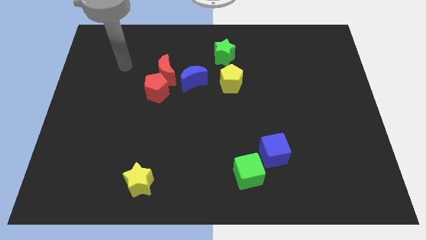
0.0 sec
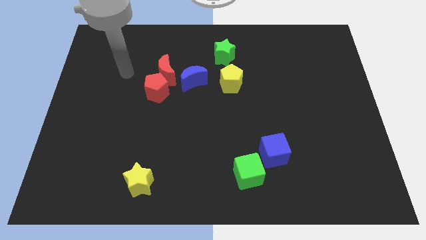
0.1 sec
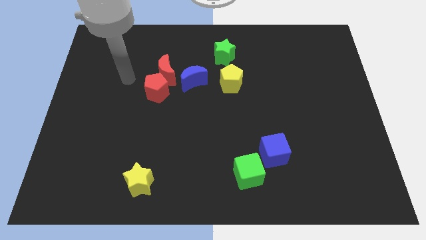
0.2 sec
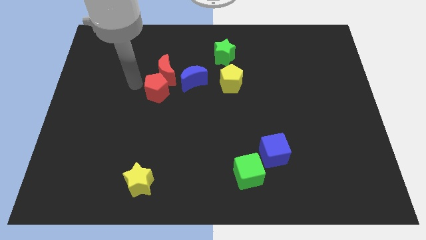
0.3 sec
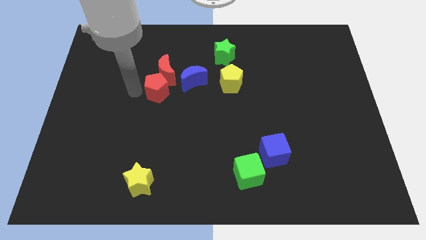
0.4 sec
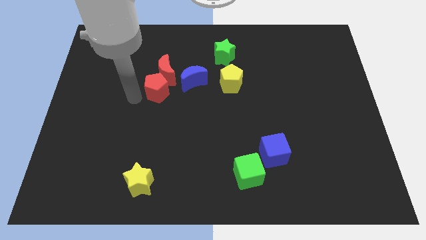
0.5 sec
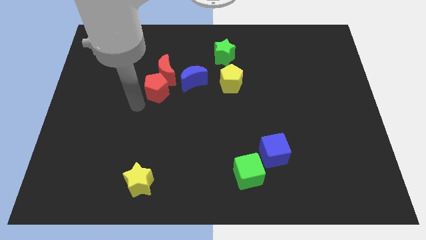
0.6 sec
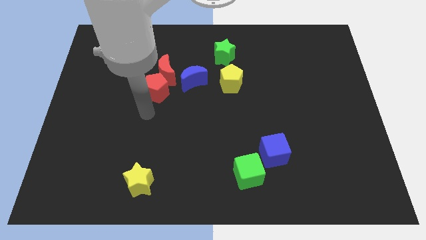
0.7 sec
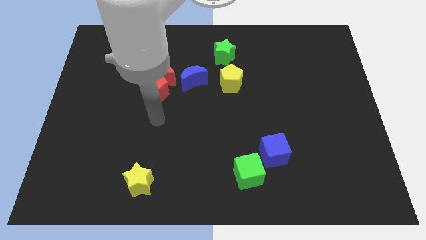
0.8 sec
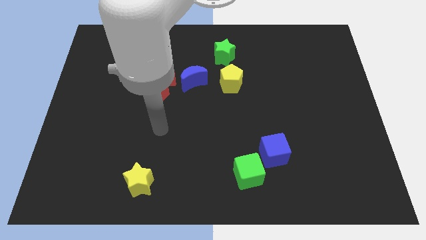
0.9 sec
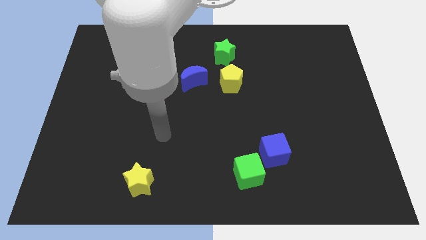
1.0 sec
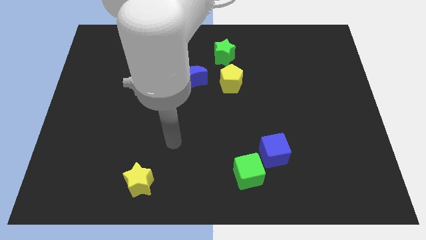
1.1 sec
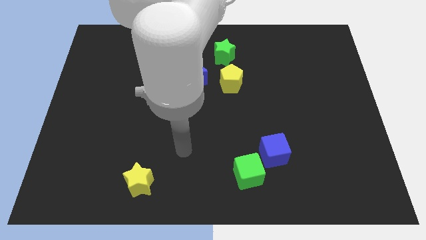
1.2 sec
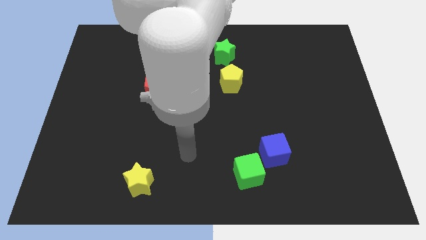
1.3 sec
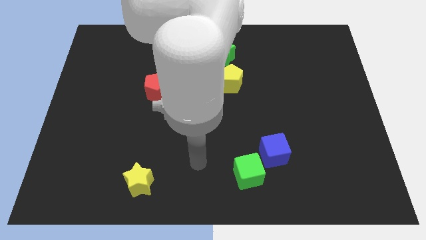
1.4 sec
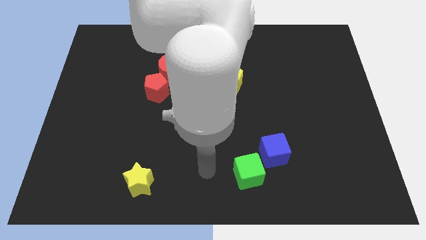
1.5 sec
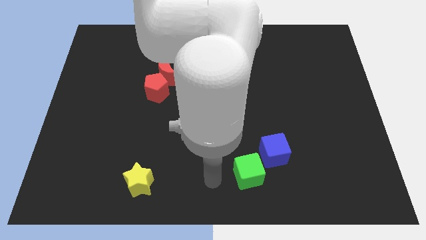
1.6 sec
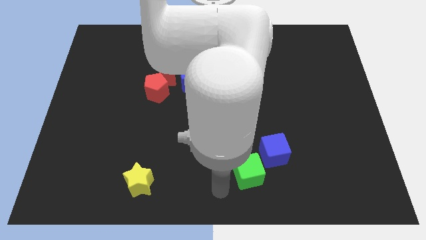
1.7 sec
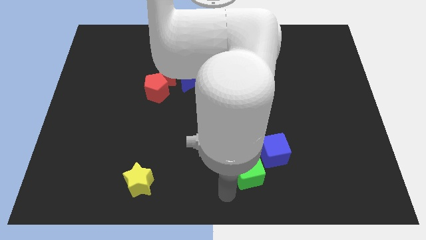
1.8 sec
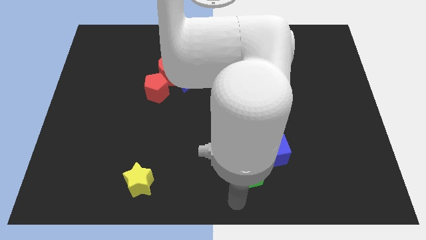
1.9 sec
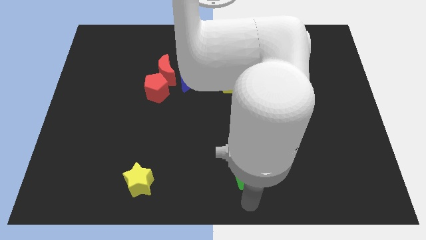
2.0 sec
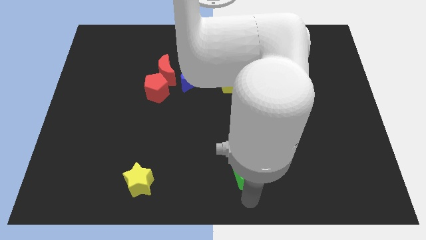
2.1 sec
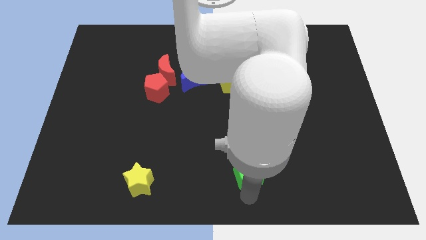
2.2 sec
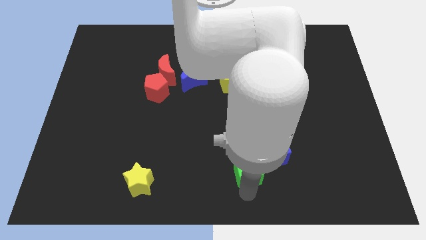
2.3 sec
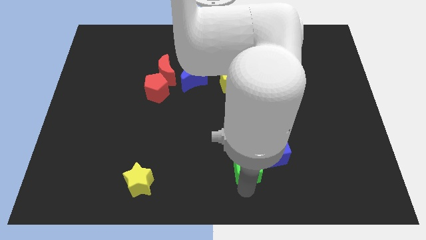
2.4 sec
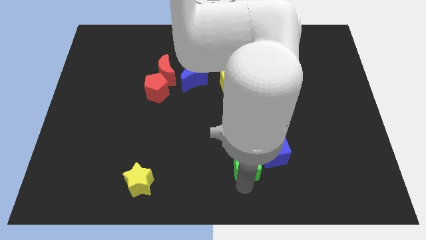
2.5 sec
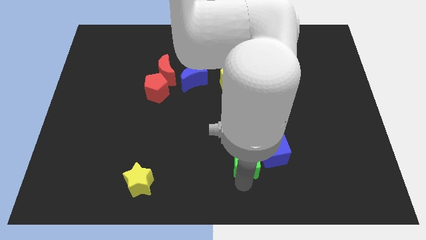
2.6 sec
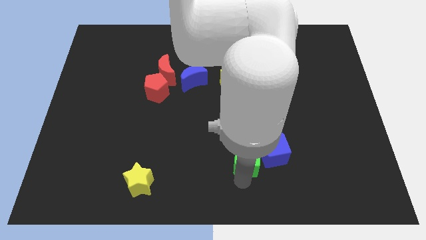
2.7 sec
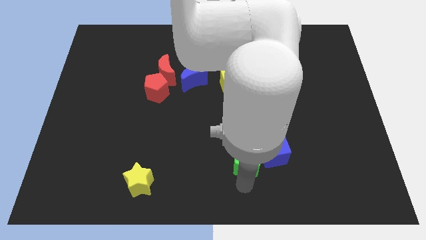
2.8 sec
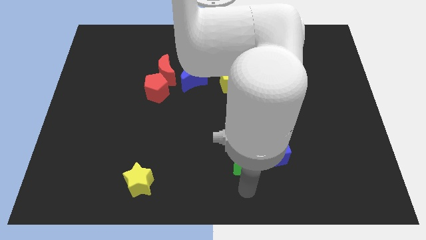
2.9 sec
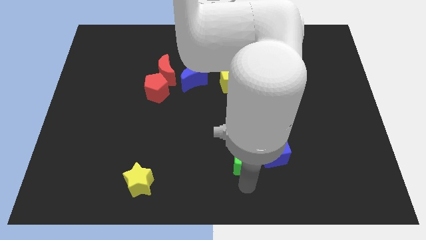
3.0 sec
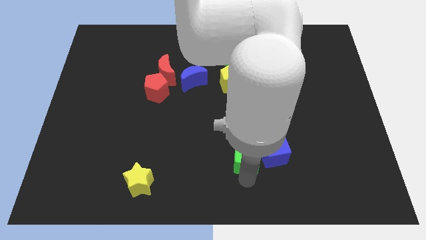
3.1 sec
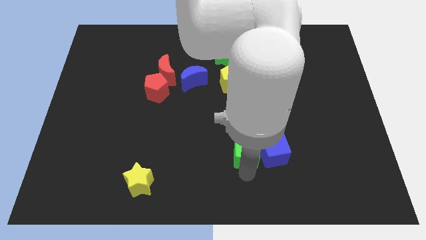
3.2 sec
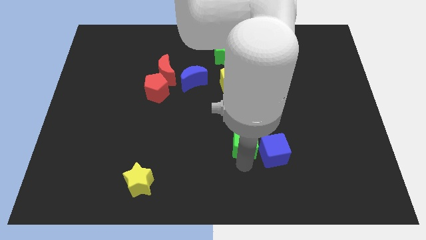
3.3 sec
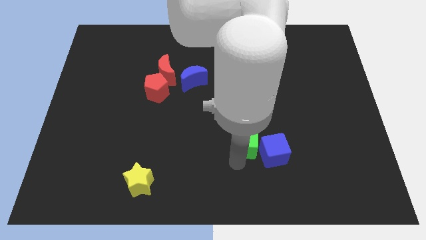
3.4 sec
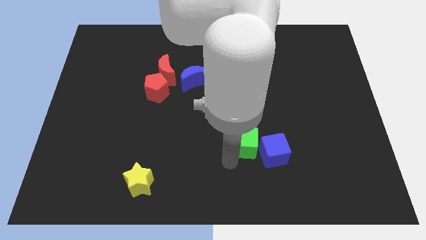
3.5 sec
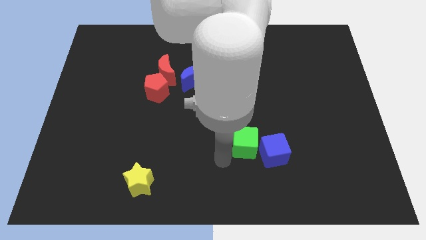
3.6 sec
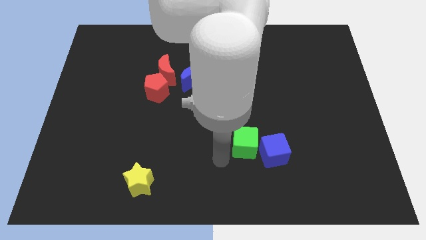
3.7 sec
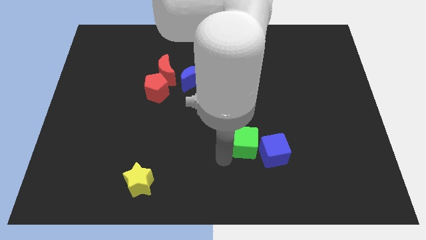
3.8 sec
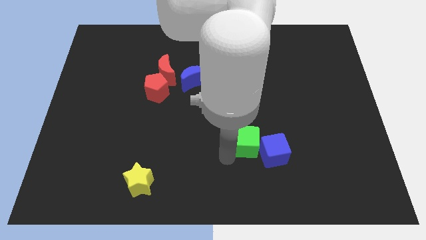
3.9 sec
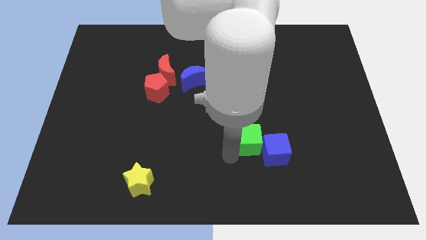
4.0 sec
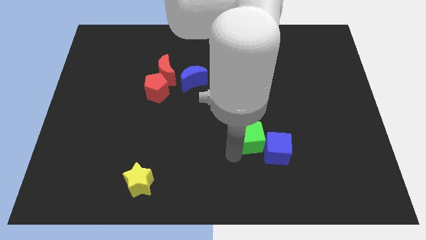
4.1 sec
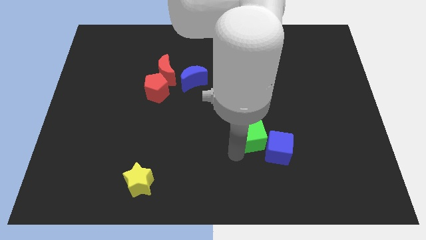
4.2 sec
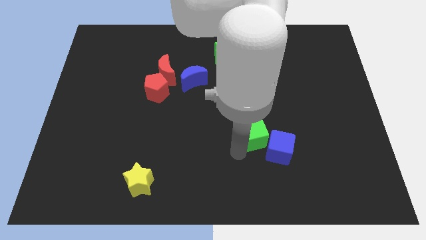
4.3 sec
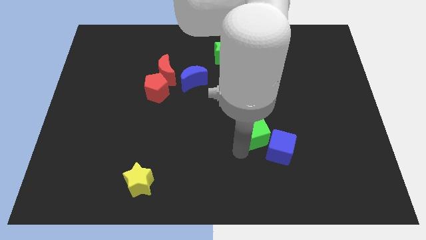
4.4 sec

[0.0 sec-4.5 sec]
slide the green cube a bit up and right

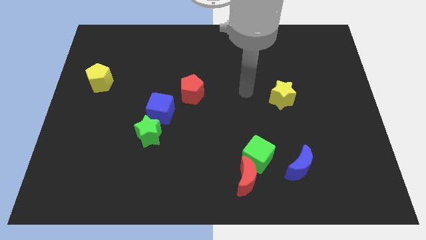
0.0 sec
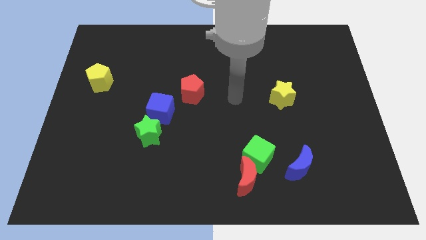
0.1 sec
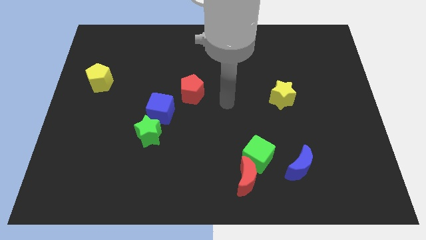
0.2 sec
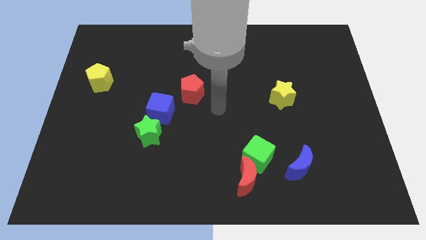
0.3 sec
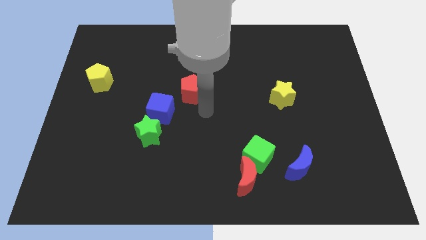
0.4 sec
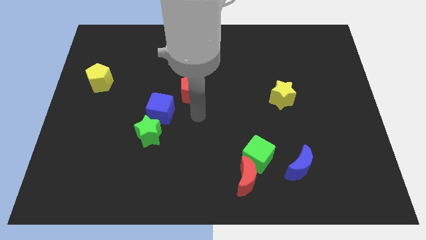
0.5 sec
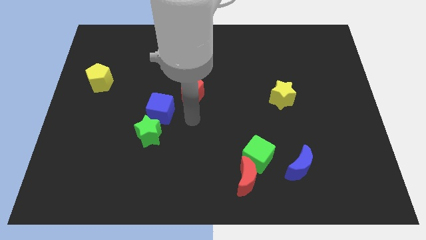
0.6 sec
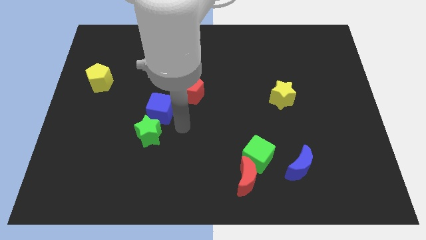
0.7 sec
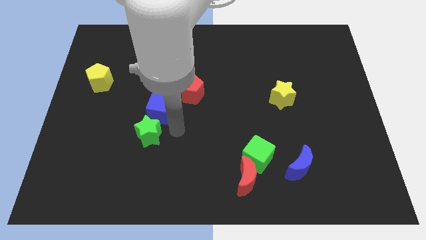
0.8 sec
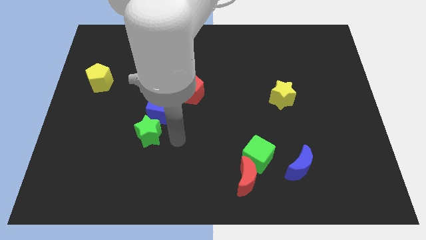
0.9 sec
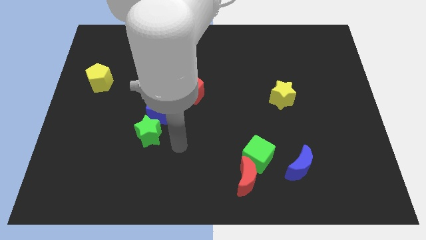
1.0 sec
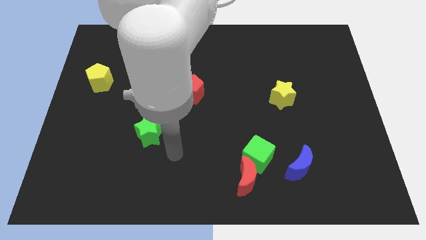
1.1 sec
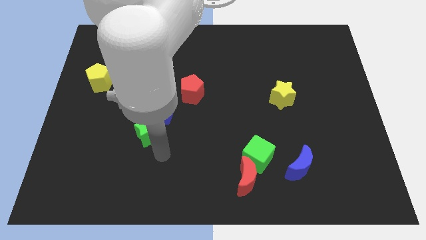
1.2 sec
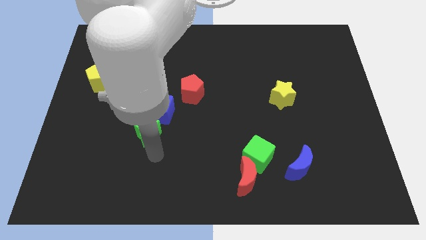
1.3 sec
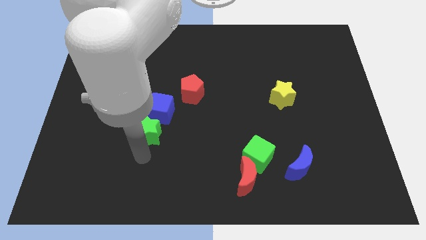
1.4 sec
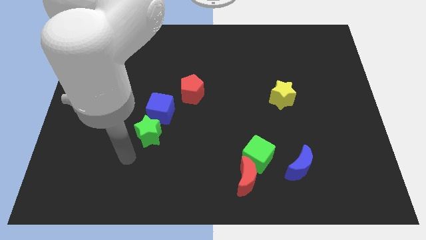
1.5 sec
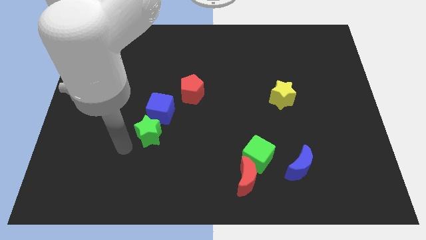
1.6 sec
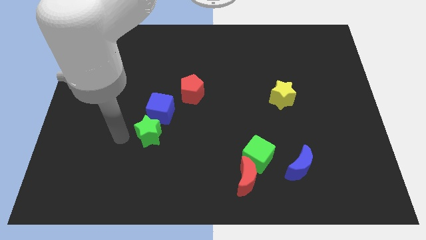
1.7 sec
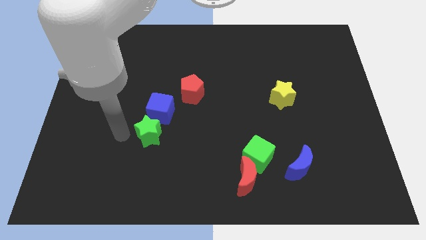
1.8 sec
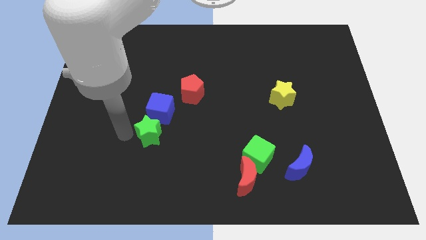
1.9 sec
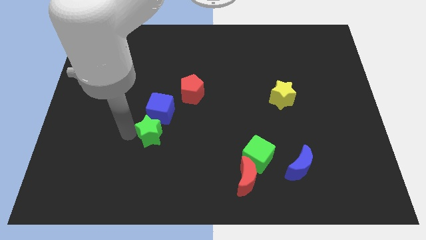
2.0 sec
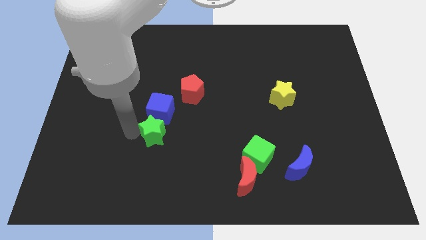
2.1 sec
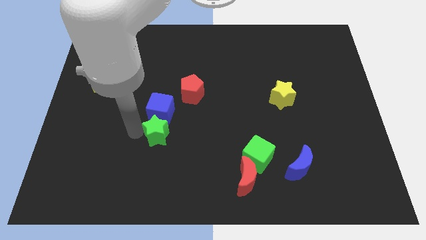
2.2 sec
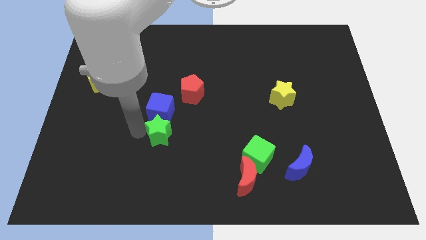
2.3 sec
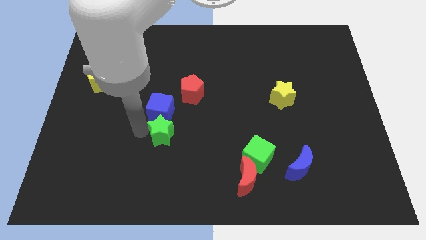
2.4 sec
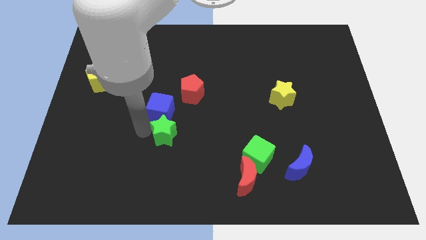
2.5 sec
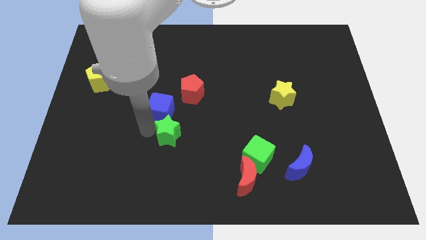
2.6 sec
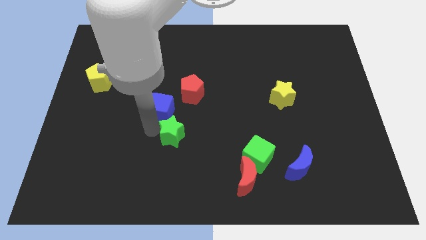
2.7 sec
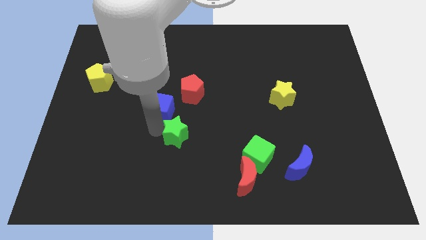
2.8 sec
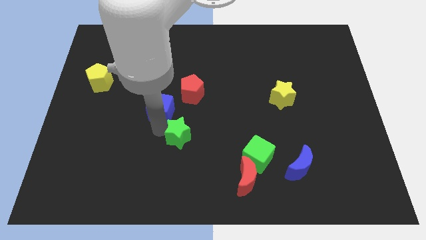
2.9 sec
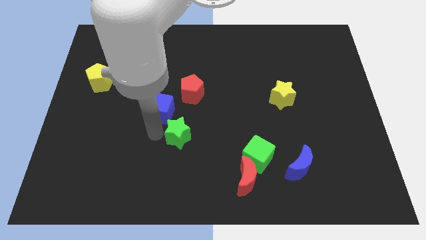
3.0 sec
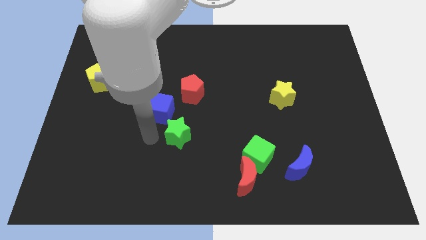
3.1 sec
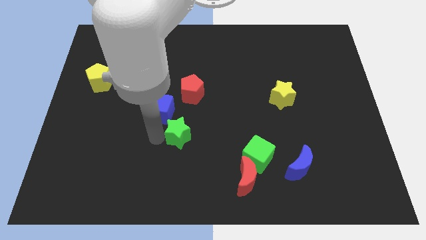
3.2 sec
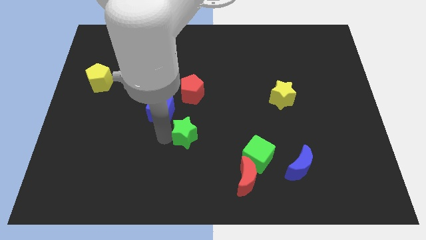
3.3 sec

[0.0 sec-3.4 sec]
slide the green star slightly to the right
